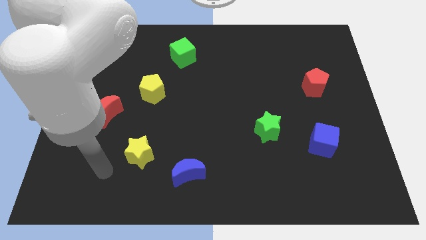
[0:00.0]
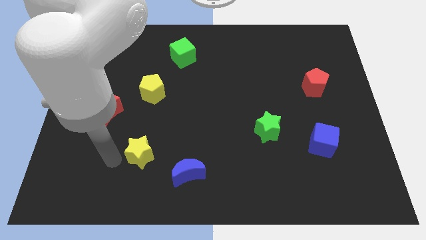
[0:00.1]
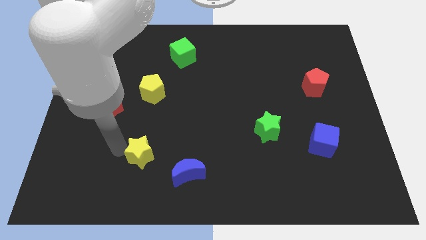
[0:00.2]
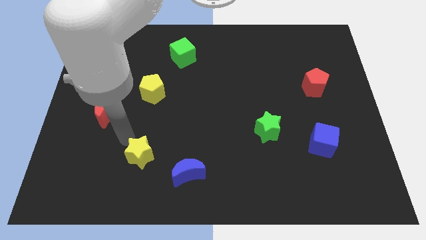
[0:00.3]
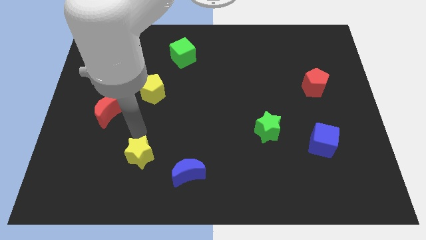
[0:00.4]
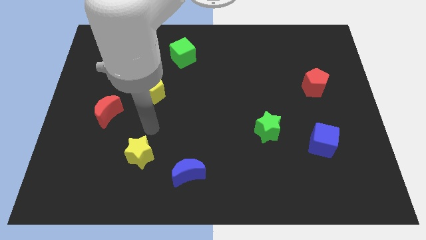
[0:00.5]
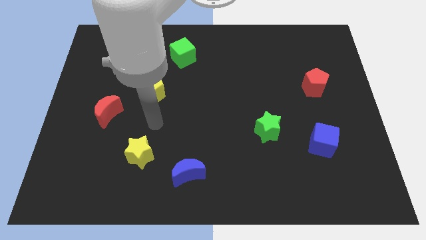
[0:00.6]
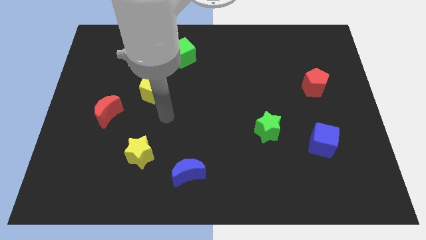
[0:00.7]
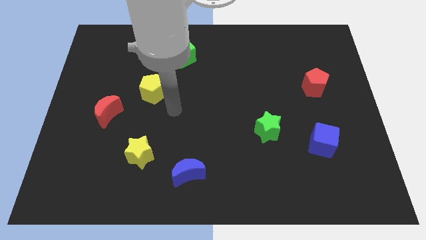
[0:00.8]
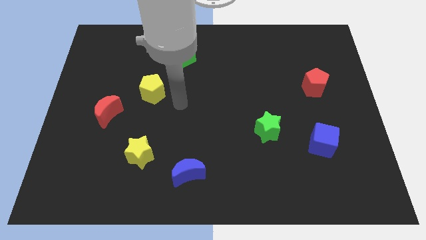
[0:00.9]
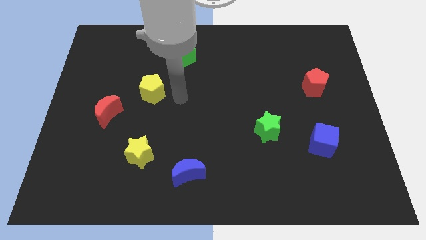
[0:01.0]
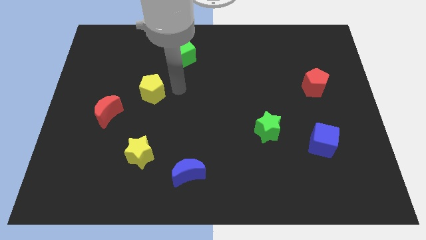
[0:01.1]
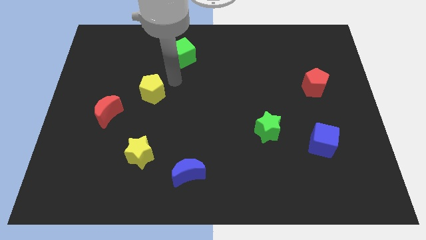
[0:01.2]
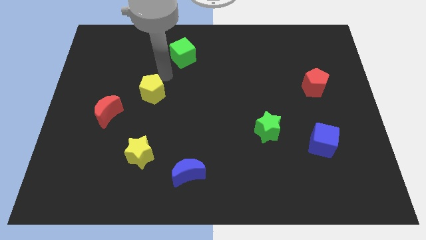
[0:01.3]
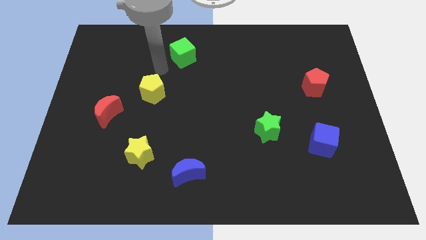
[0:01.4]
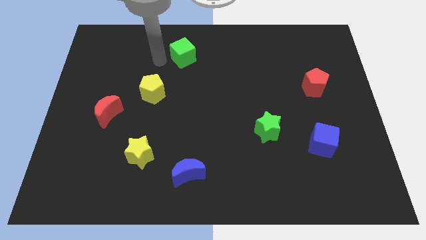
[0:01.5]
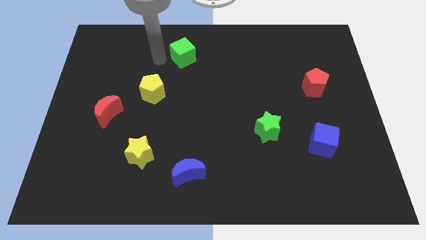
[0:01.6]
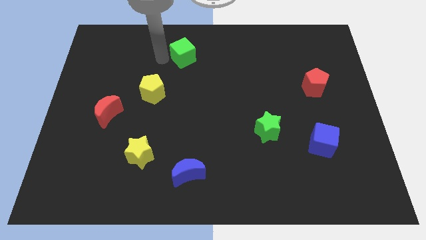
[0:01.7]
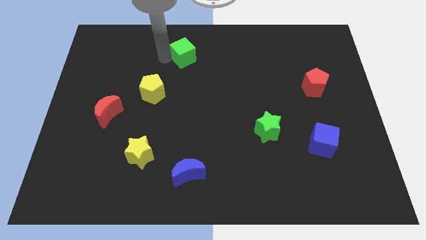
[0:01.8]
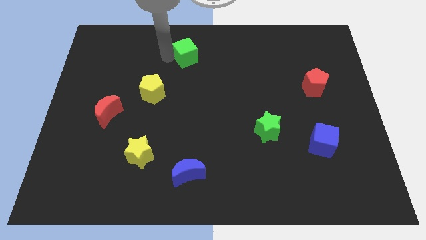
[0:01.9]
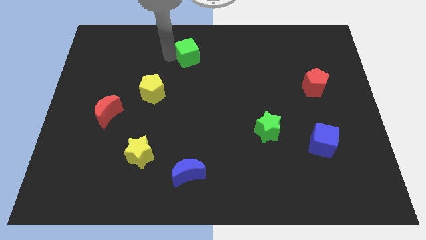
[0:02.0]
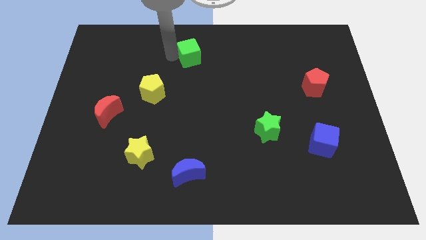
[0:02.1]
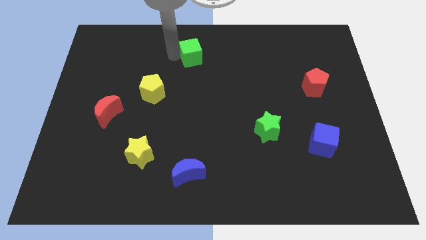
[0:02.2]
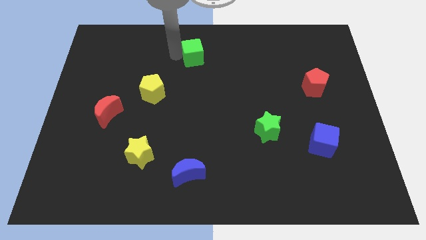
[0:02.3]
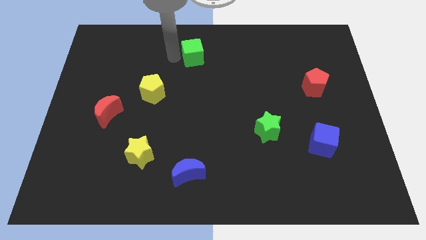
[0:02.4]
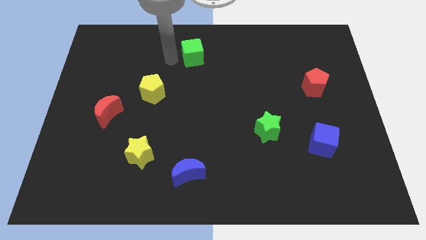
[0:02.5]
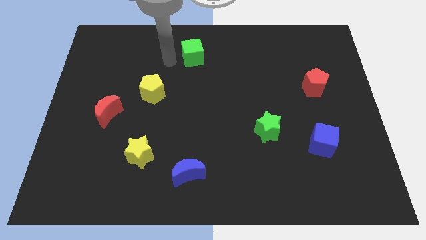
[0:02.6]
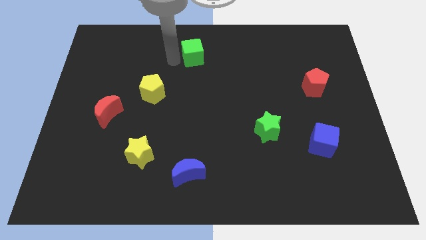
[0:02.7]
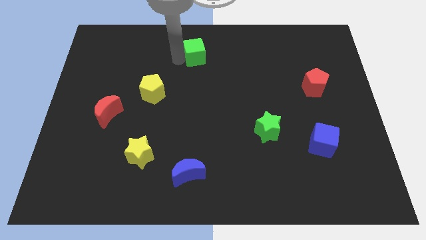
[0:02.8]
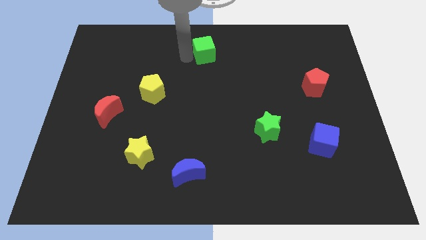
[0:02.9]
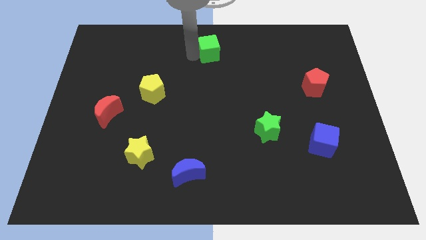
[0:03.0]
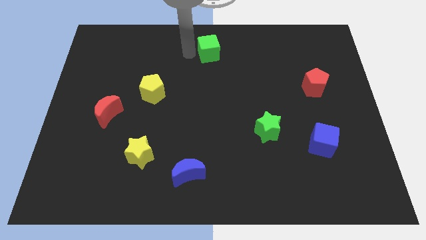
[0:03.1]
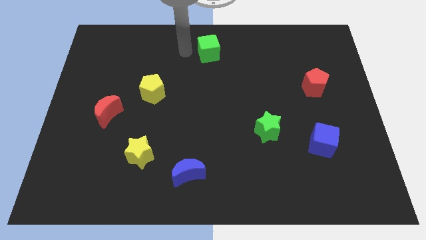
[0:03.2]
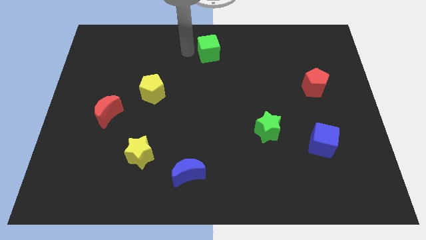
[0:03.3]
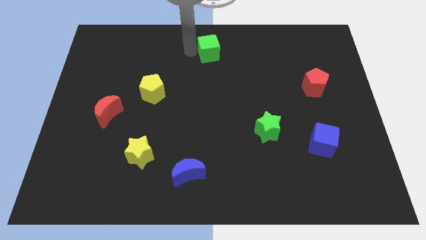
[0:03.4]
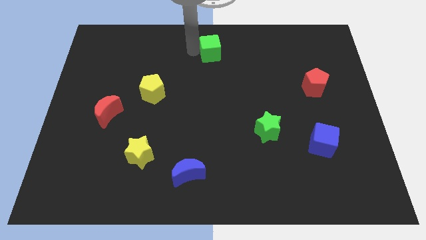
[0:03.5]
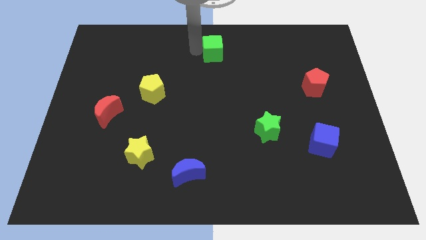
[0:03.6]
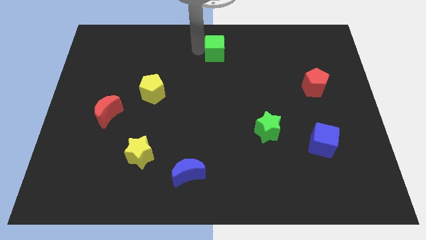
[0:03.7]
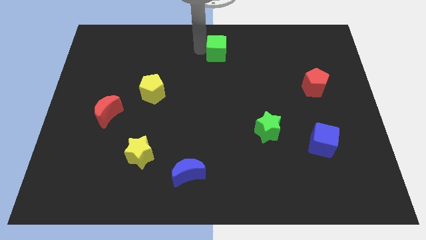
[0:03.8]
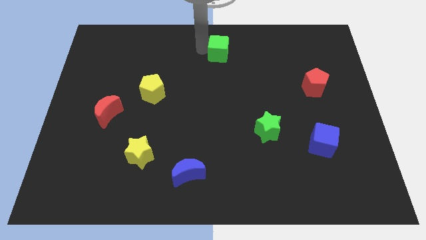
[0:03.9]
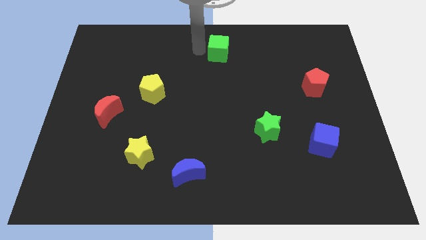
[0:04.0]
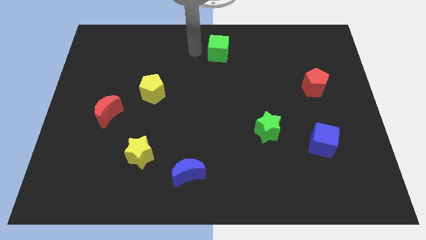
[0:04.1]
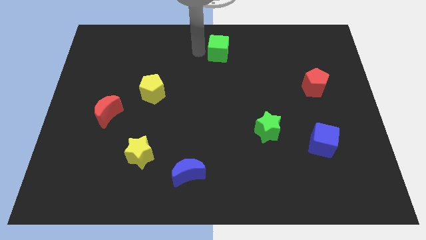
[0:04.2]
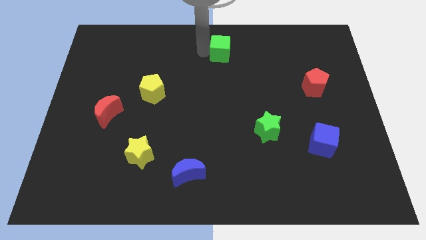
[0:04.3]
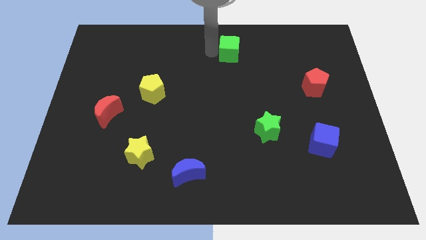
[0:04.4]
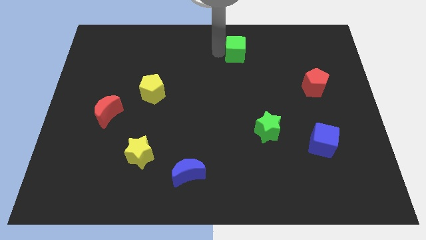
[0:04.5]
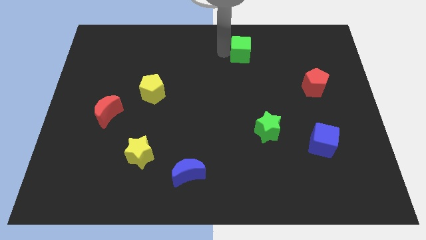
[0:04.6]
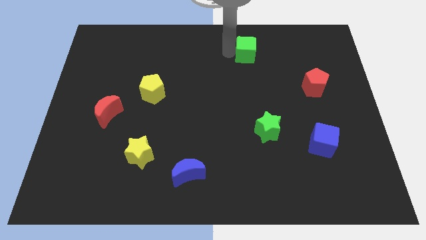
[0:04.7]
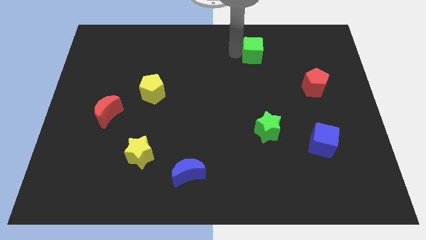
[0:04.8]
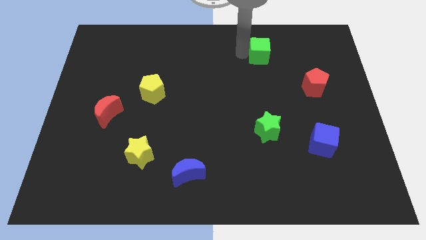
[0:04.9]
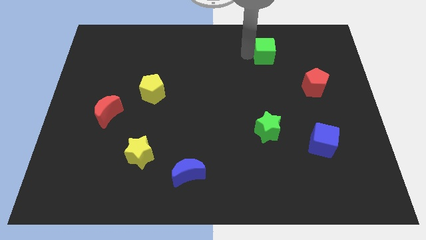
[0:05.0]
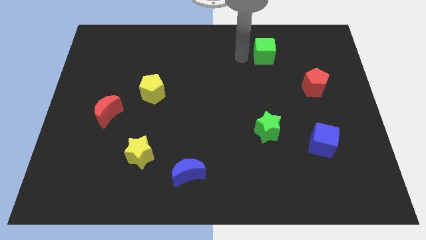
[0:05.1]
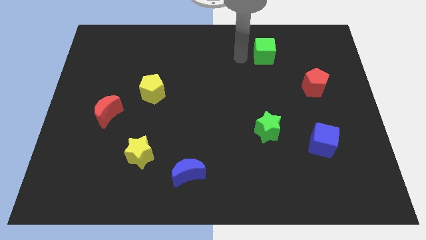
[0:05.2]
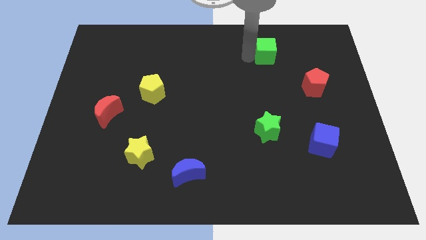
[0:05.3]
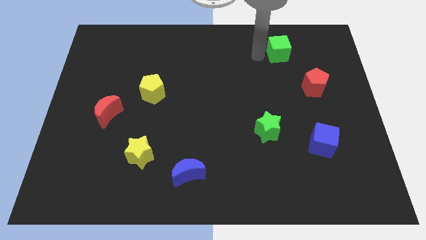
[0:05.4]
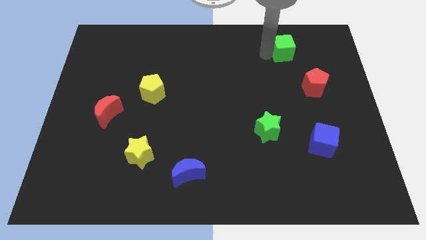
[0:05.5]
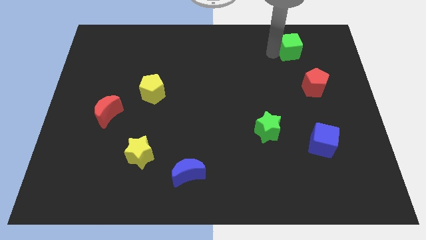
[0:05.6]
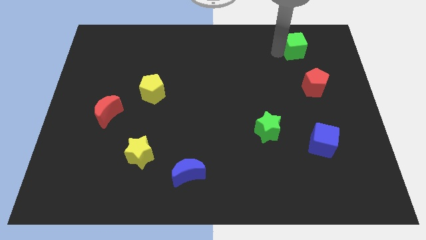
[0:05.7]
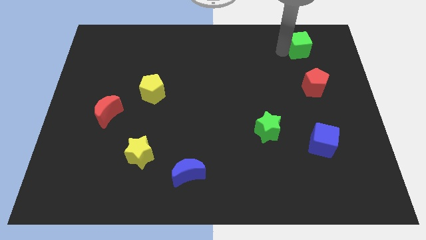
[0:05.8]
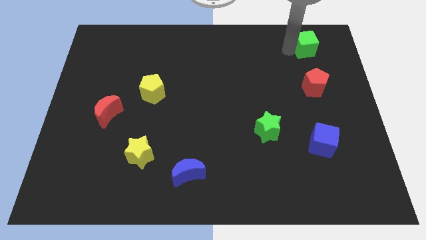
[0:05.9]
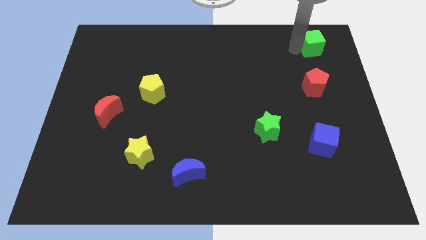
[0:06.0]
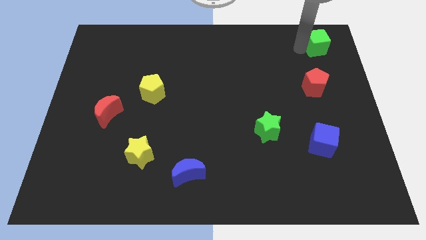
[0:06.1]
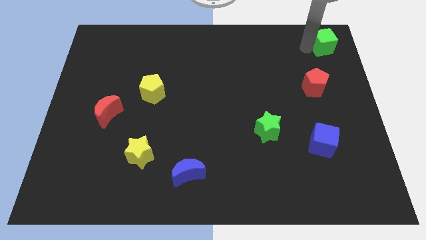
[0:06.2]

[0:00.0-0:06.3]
push the green cube to the top right
